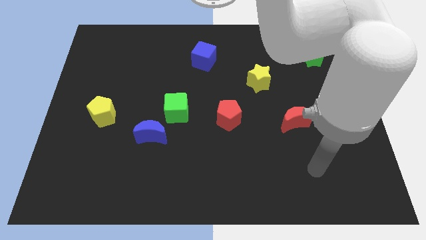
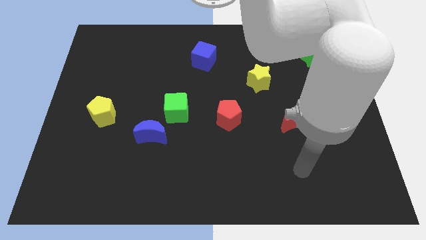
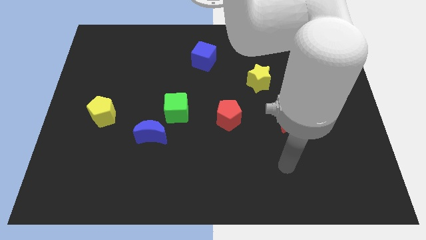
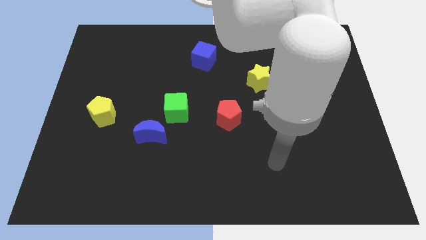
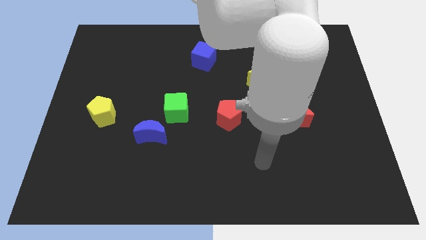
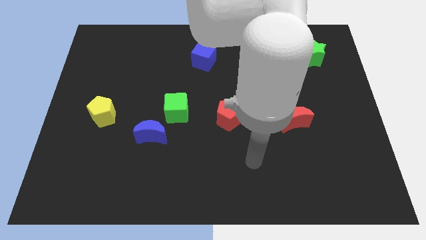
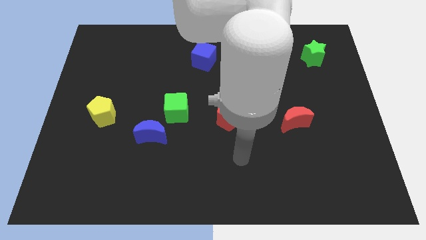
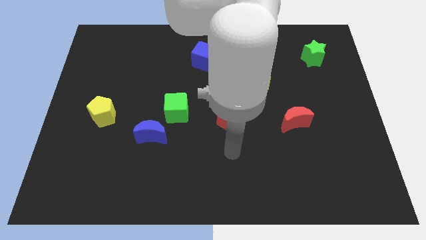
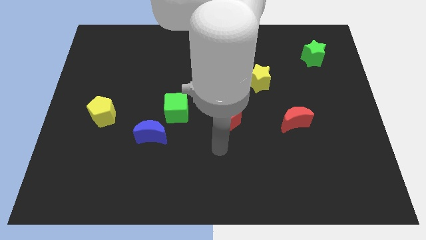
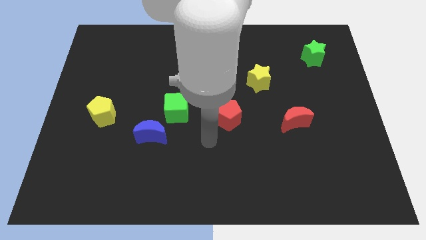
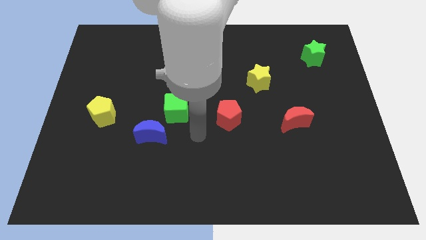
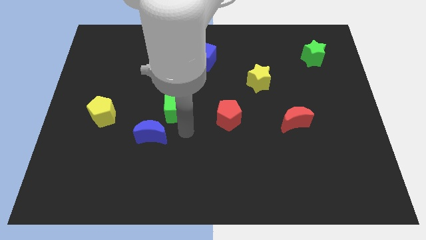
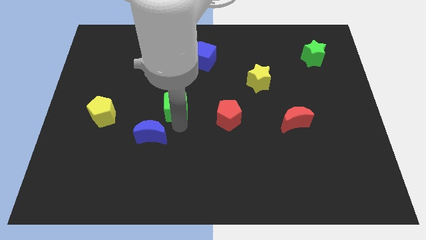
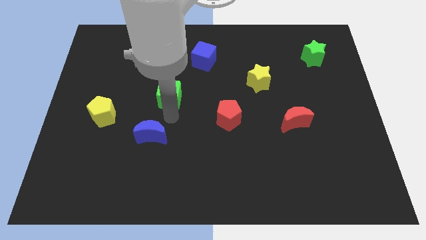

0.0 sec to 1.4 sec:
separate the blue moon from the green cube

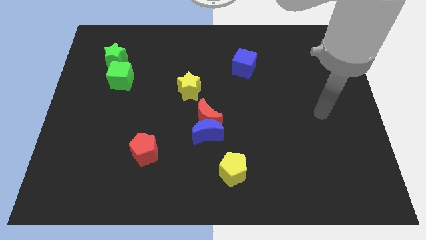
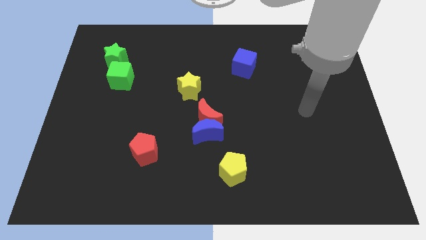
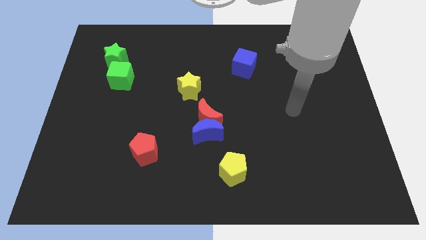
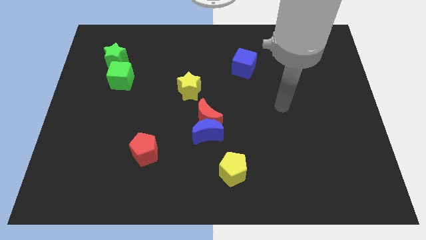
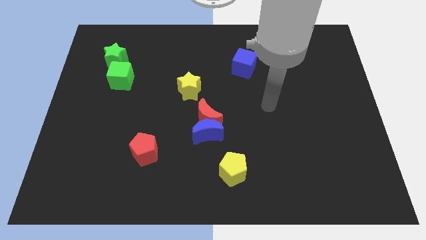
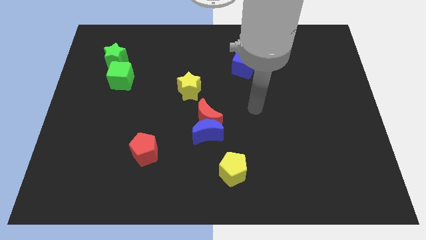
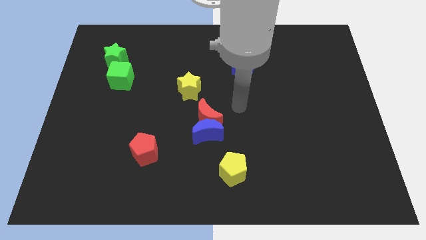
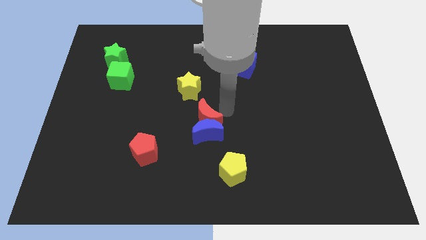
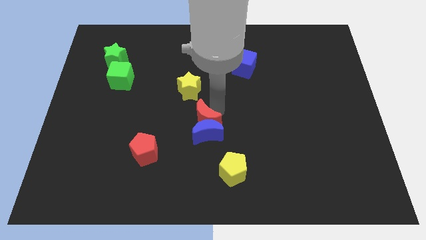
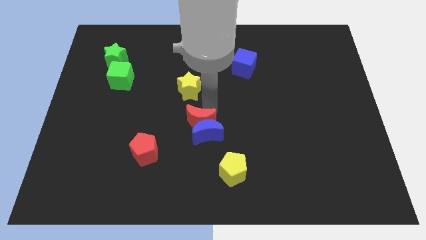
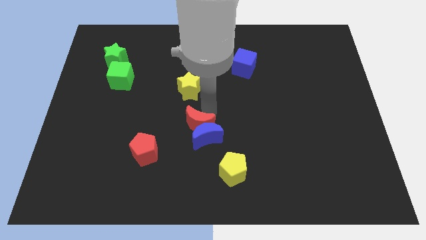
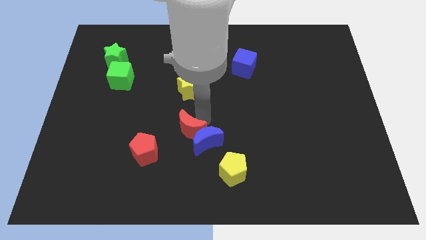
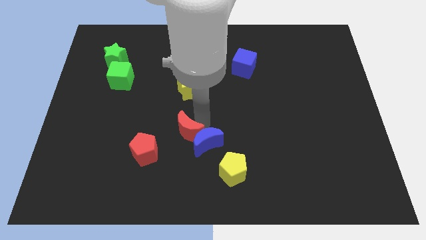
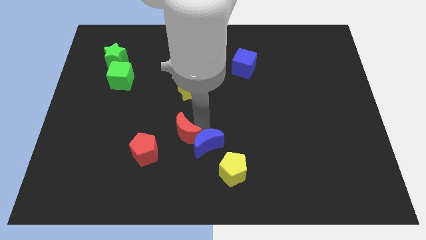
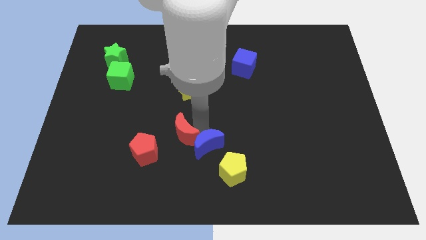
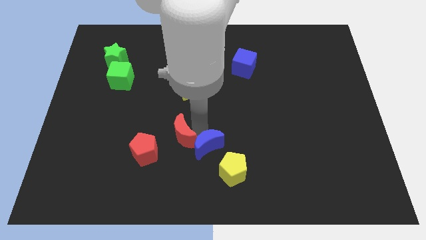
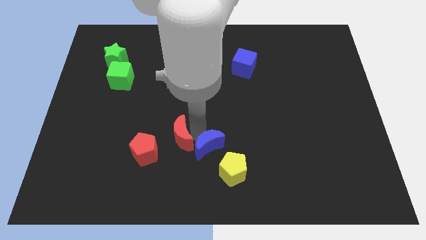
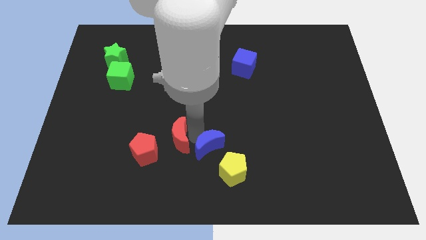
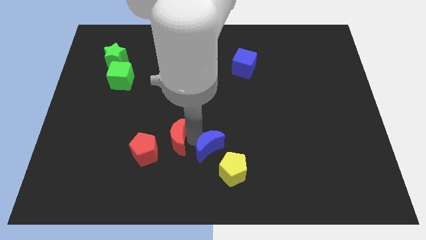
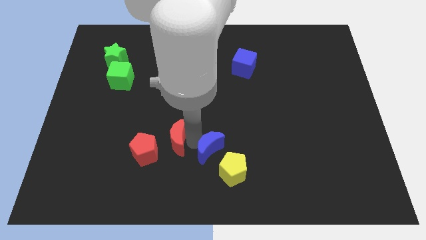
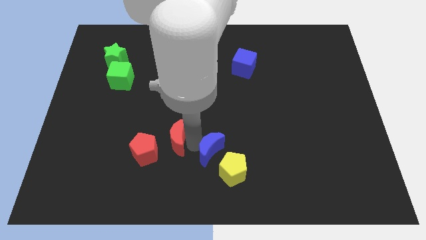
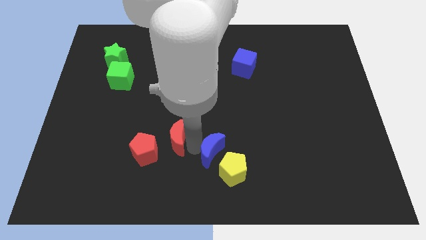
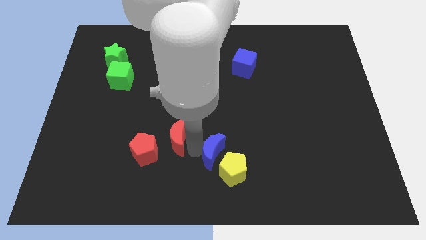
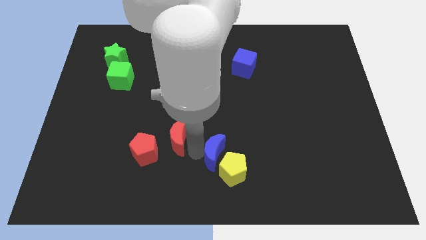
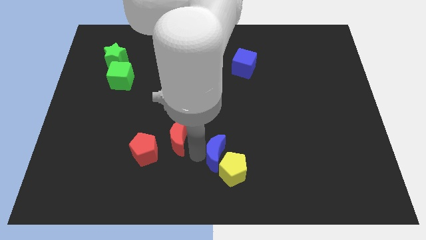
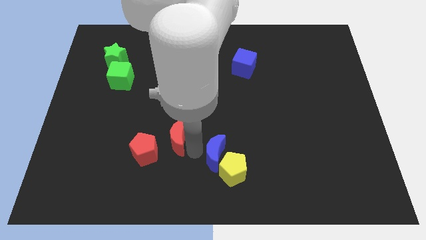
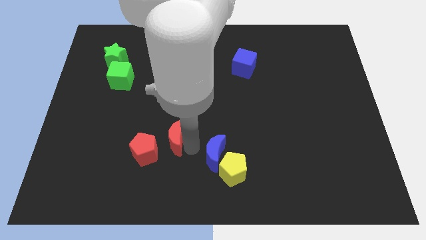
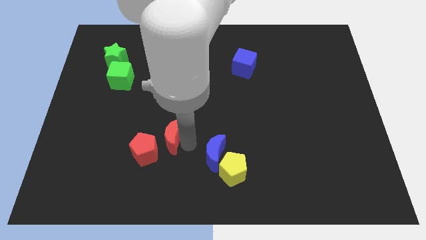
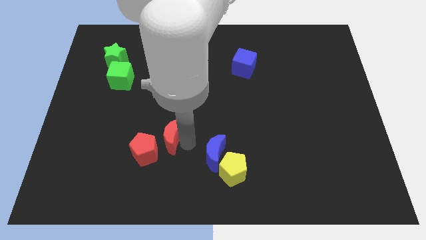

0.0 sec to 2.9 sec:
separate the blue moon from the red moon

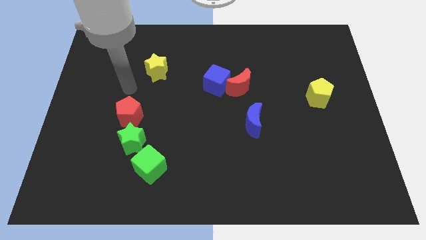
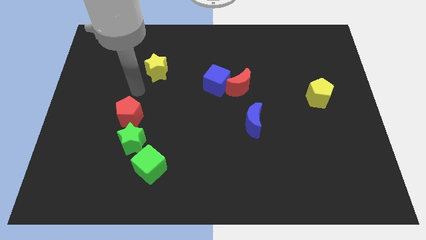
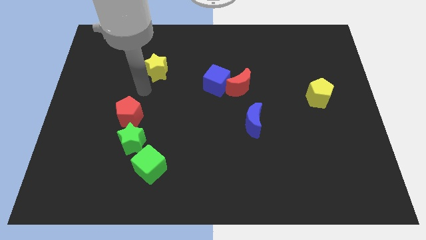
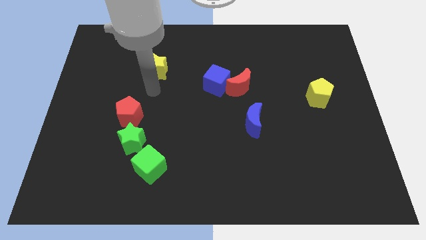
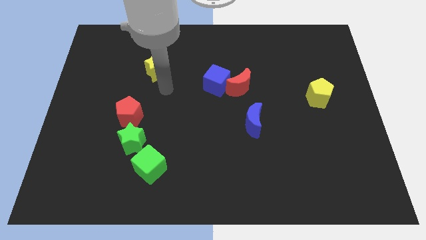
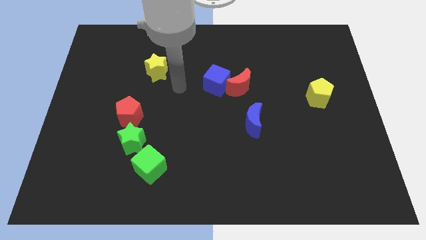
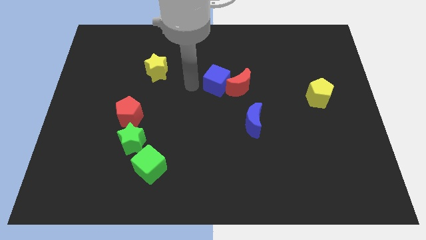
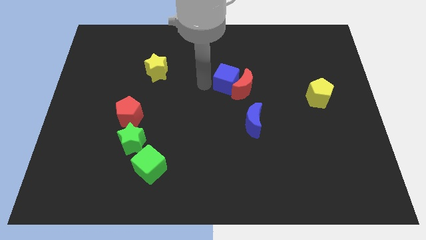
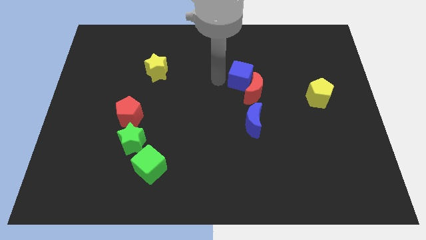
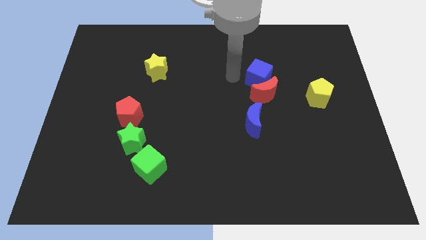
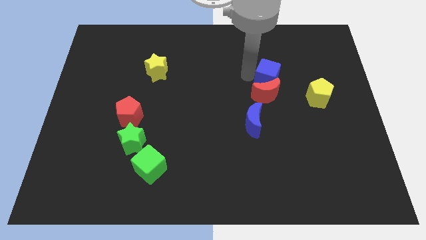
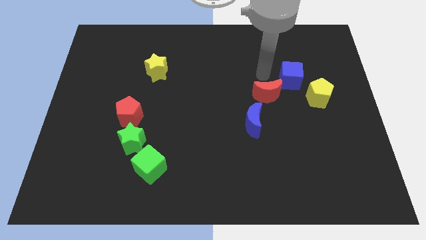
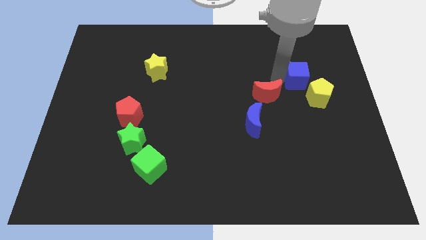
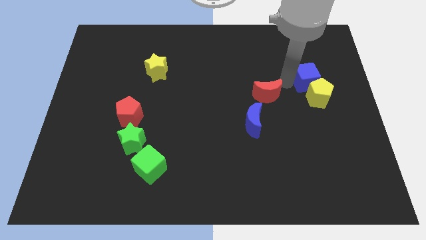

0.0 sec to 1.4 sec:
separate the red moon from the blue cube

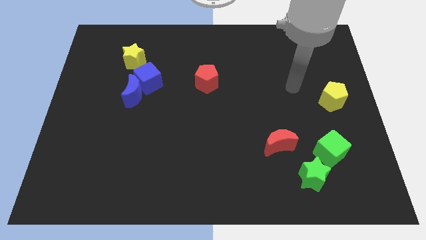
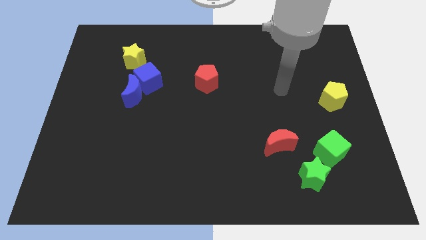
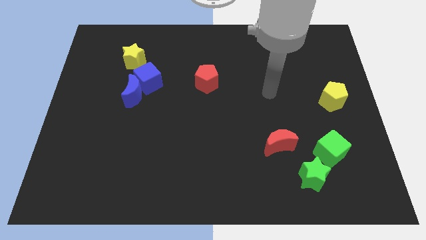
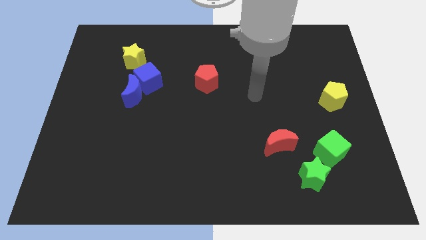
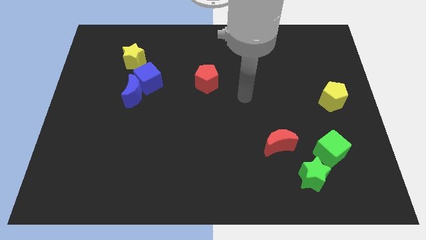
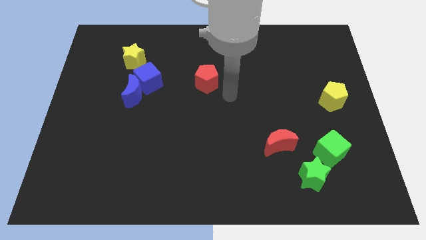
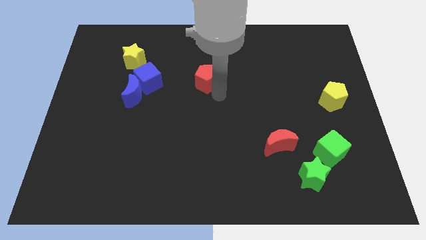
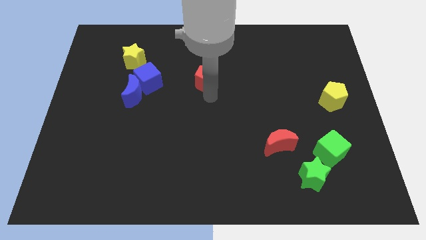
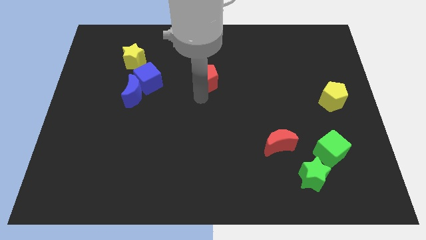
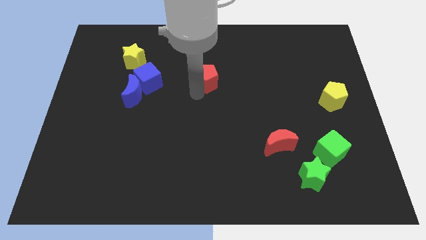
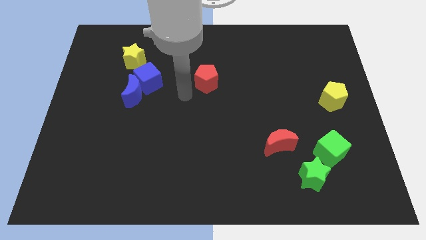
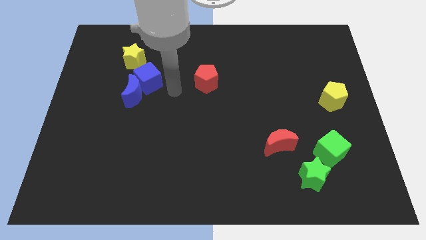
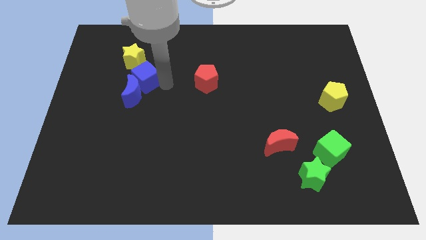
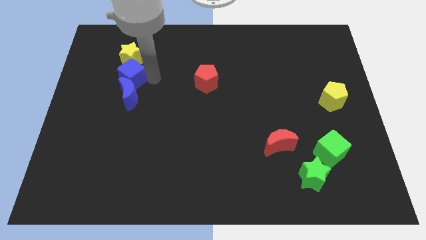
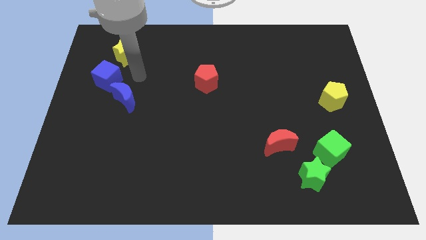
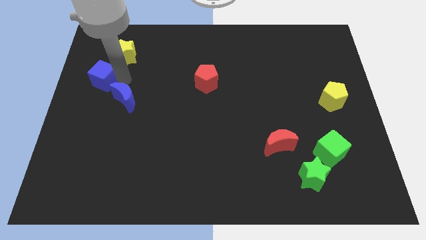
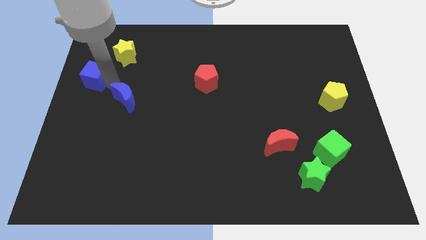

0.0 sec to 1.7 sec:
pull the blue moon apart from the blue cube

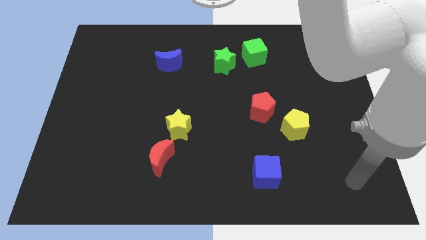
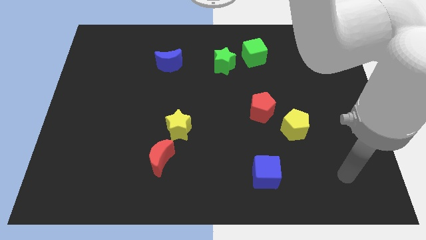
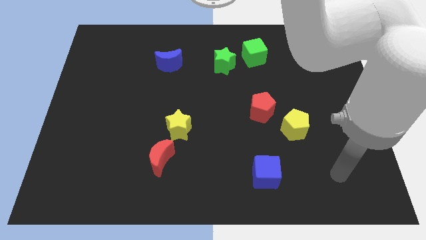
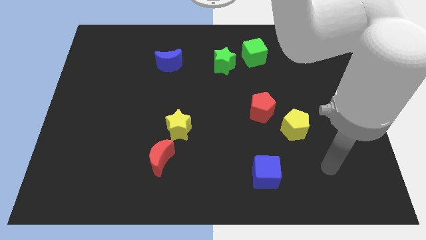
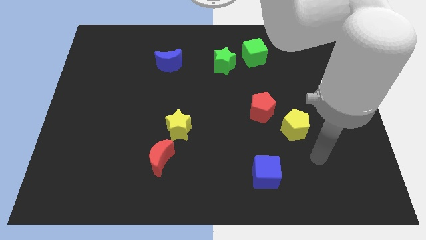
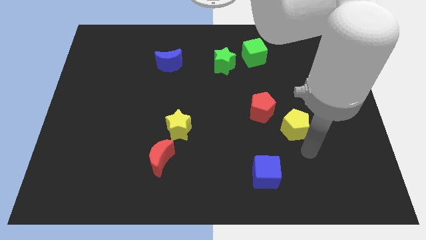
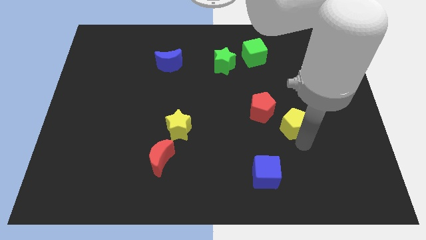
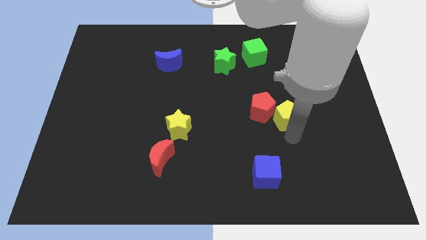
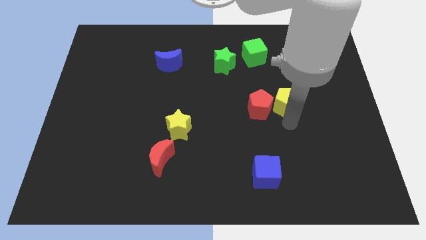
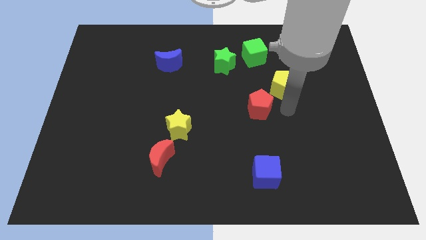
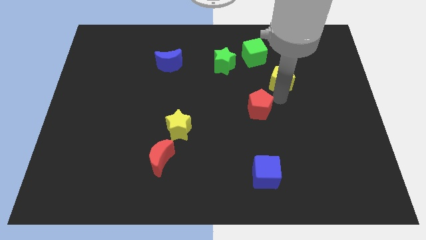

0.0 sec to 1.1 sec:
move the red pentagon away from the yellow pentagon

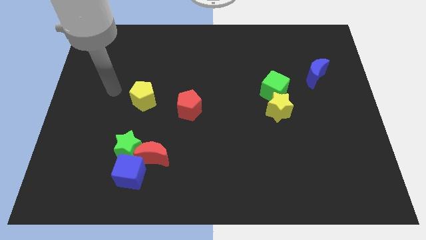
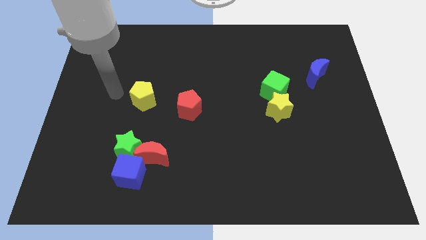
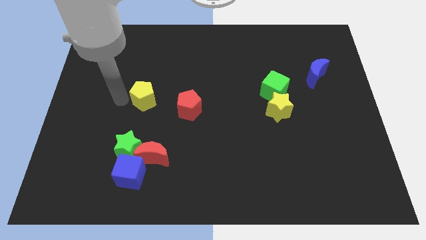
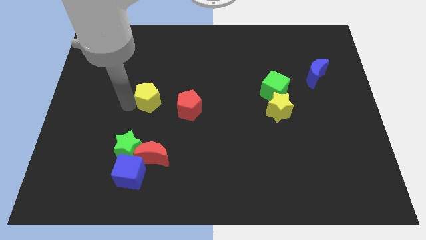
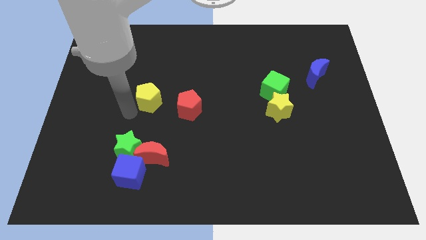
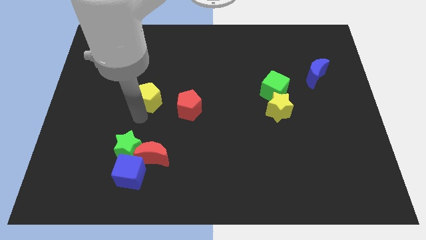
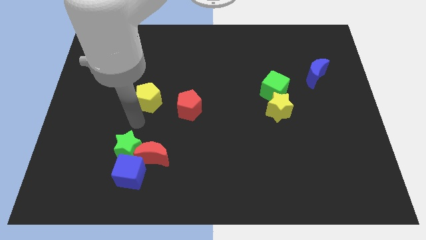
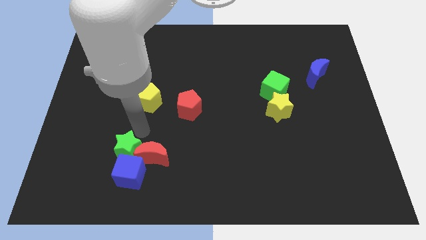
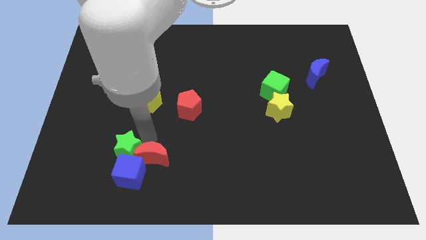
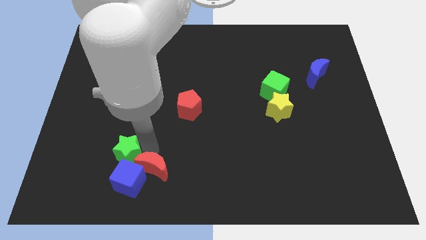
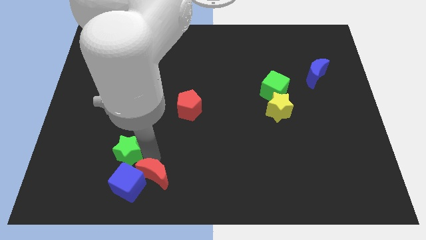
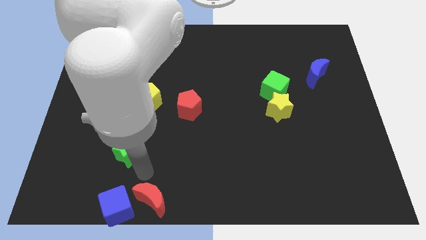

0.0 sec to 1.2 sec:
move the green star away from the red moon and blue cube
